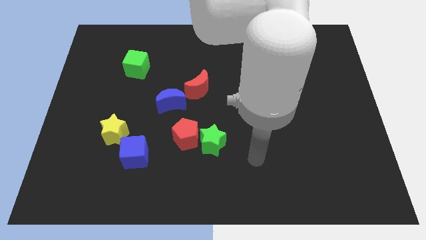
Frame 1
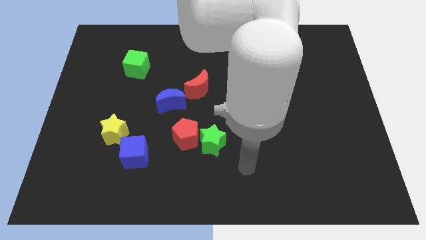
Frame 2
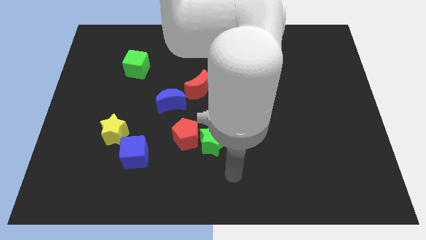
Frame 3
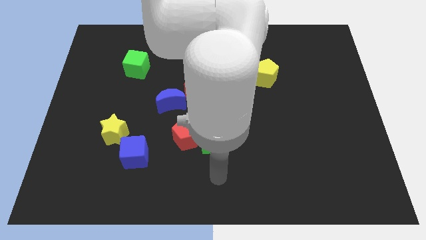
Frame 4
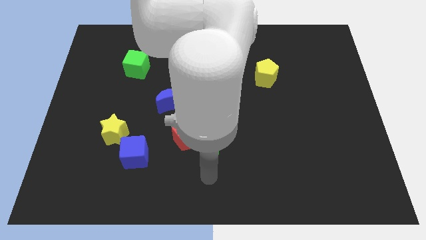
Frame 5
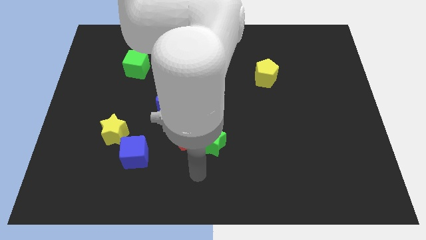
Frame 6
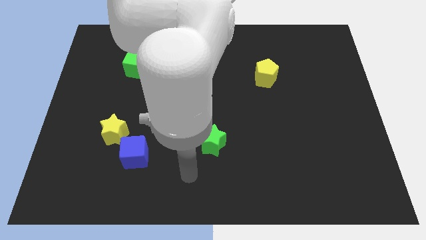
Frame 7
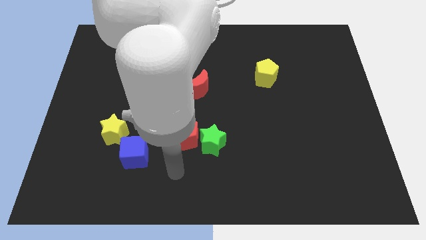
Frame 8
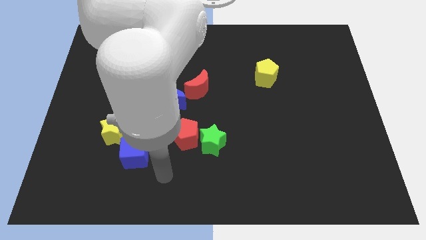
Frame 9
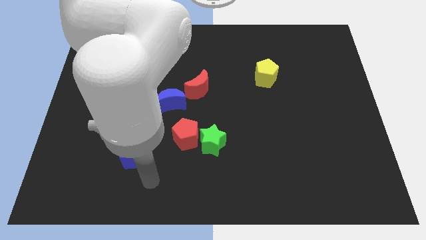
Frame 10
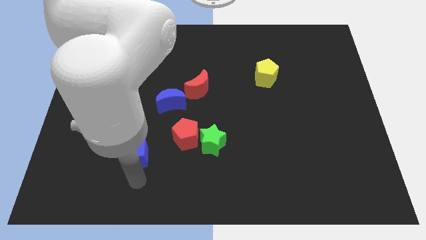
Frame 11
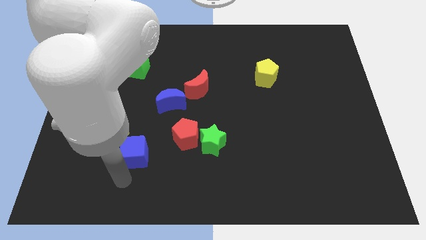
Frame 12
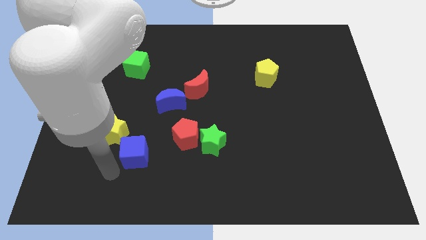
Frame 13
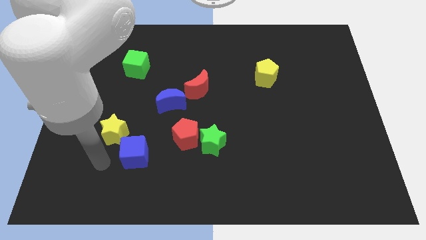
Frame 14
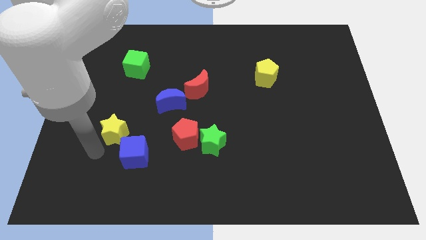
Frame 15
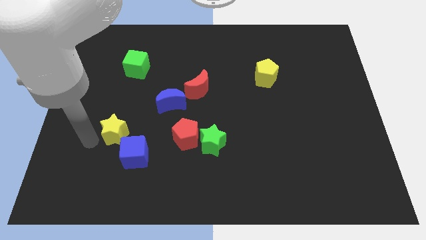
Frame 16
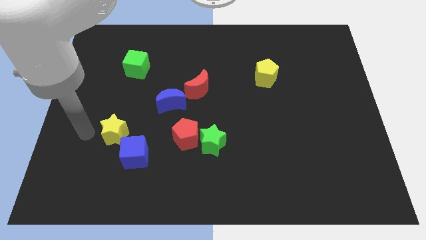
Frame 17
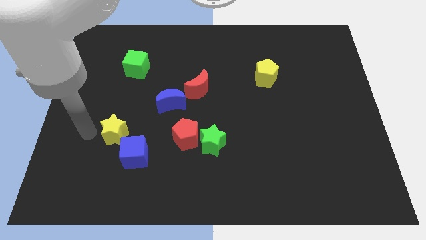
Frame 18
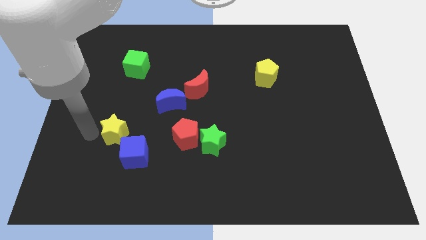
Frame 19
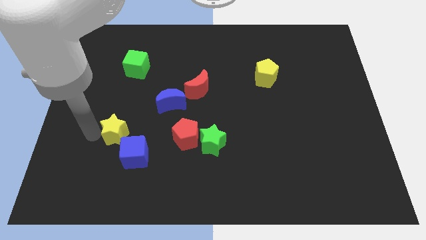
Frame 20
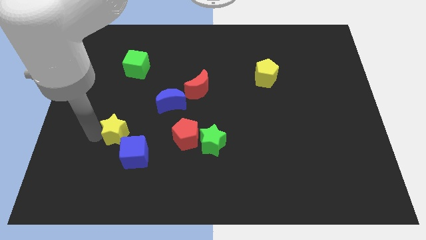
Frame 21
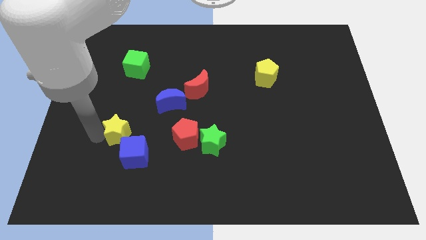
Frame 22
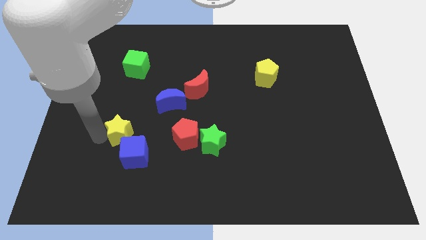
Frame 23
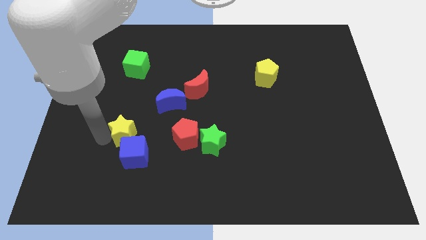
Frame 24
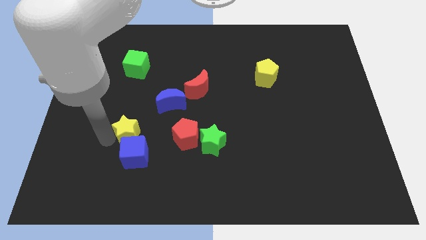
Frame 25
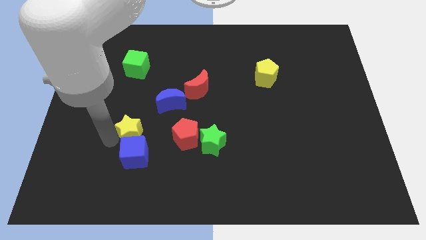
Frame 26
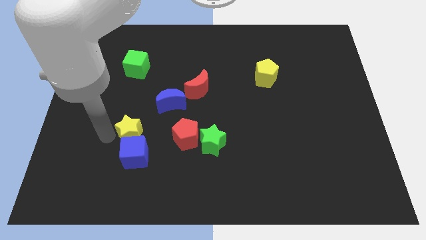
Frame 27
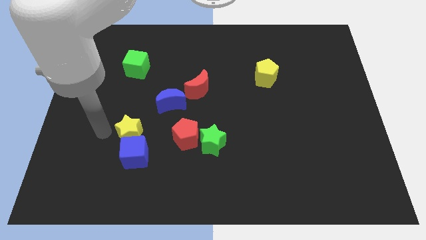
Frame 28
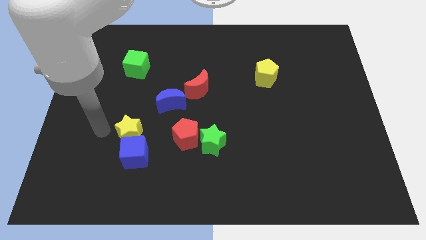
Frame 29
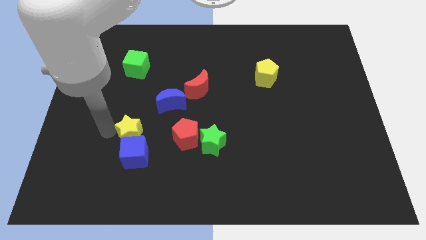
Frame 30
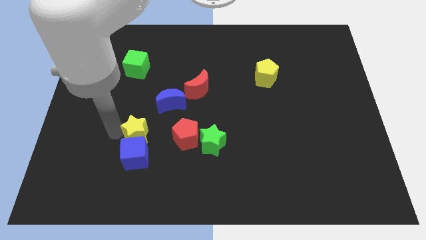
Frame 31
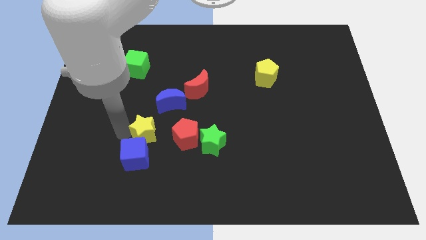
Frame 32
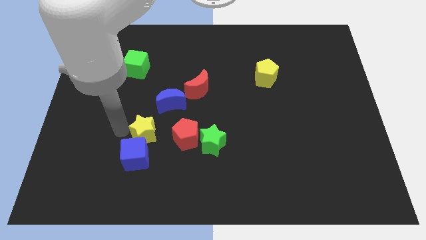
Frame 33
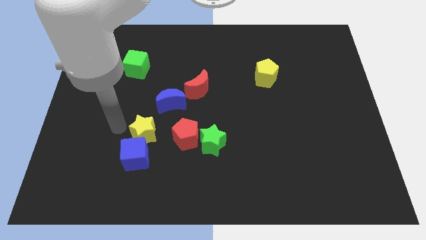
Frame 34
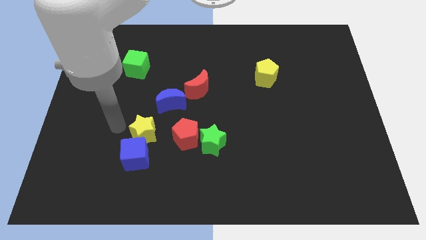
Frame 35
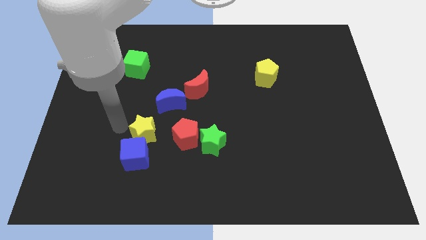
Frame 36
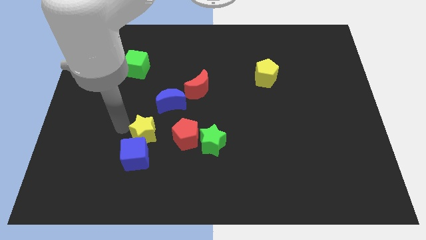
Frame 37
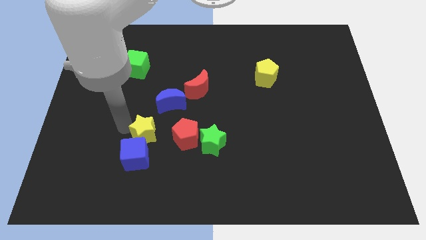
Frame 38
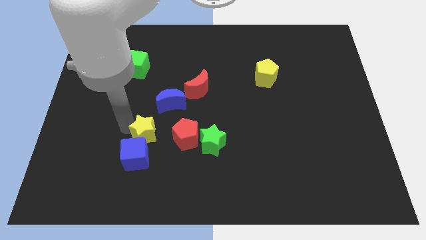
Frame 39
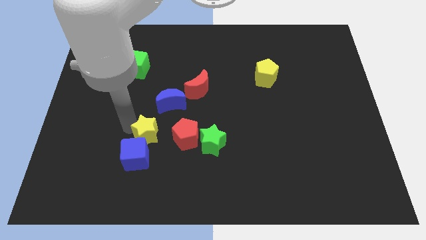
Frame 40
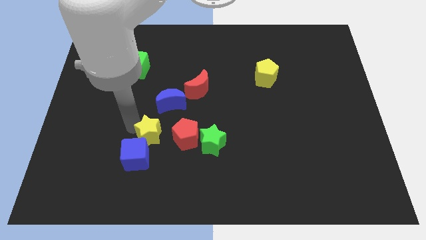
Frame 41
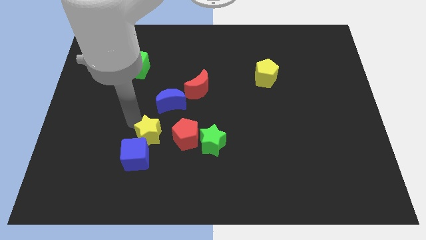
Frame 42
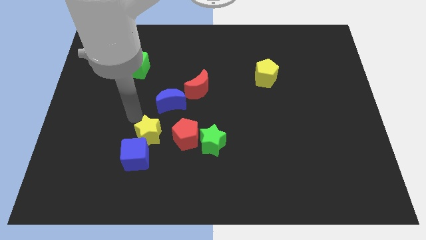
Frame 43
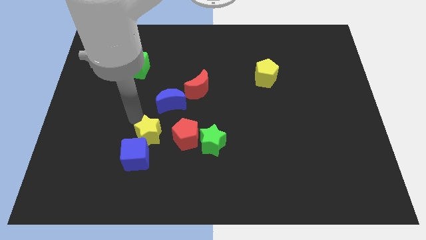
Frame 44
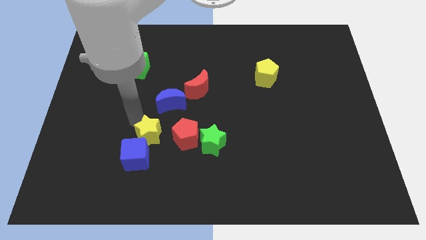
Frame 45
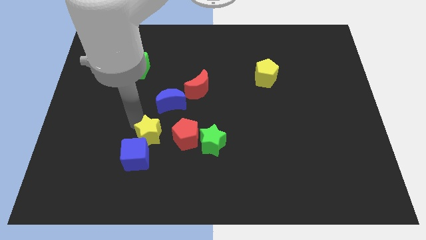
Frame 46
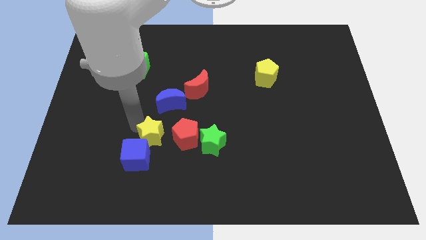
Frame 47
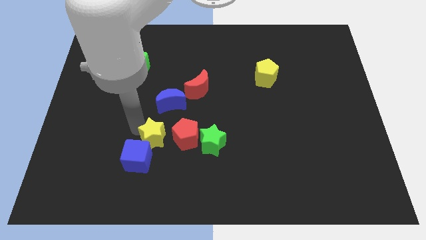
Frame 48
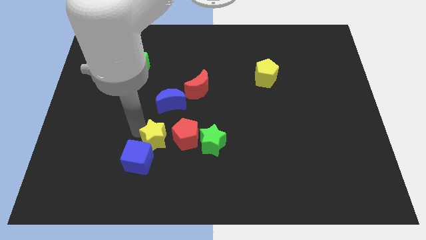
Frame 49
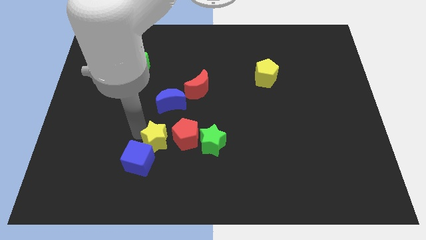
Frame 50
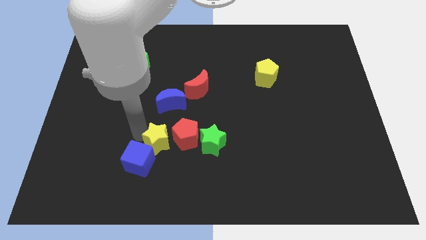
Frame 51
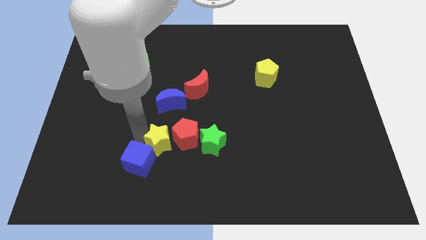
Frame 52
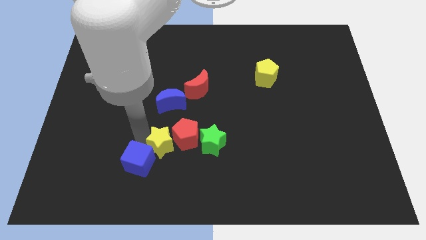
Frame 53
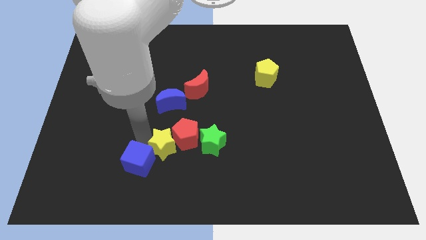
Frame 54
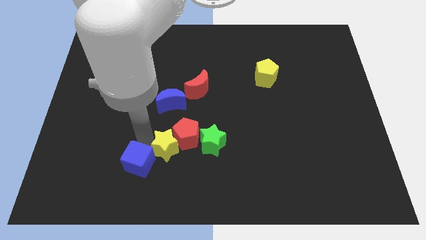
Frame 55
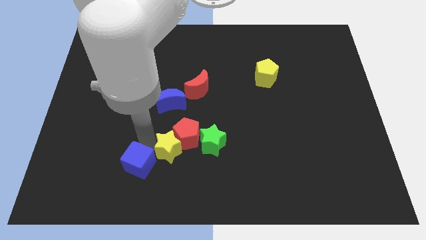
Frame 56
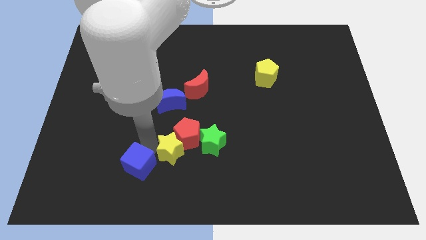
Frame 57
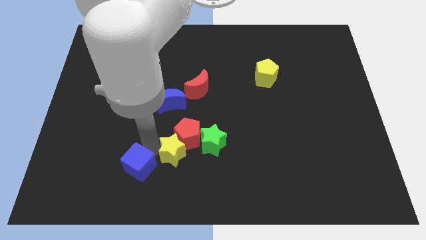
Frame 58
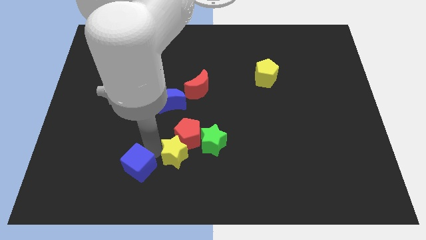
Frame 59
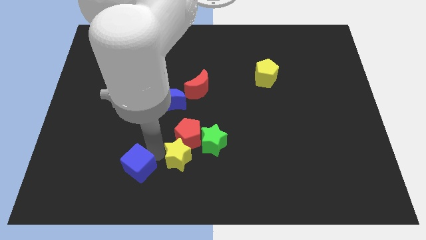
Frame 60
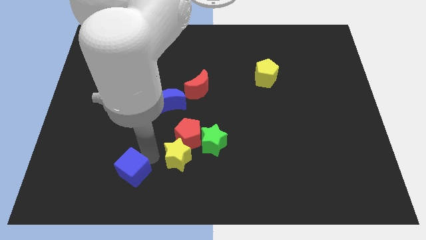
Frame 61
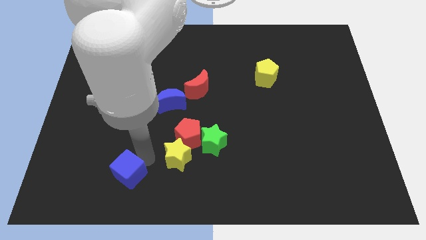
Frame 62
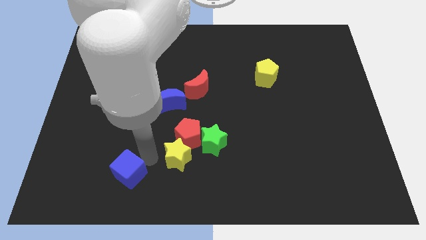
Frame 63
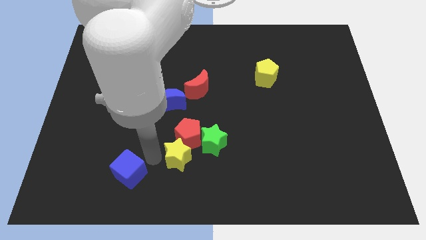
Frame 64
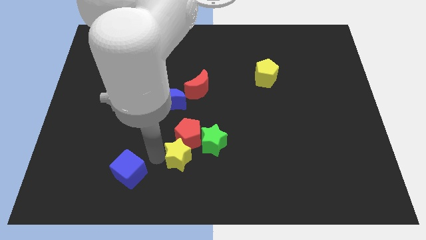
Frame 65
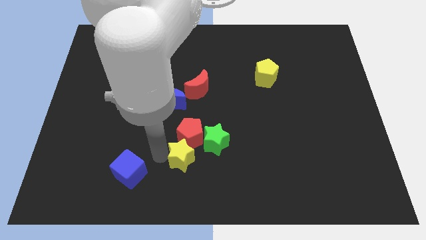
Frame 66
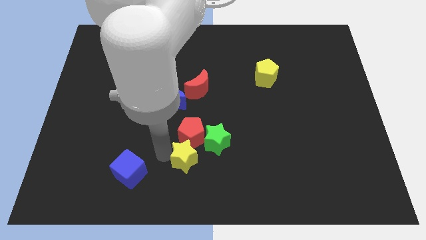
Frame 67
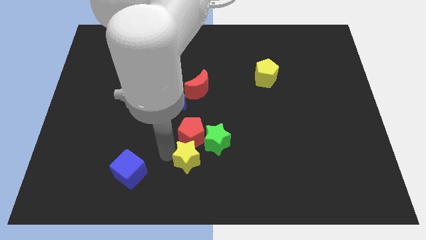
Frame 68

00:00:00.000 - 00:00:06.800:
slide the yellow star diagonally down and to the right of the red pentagon
